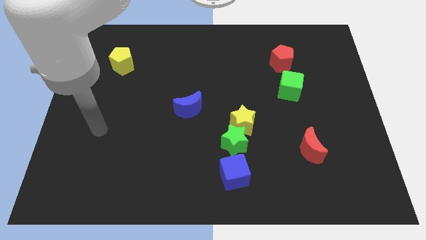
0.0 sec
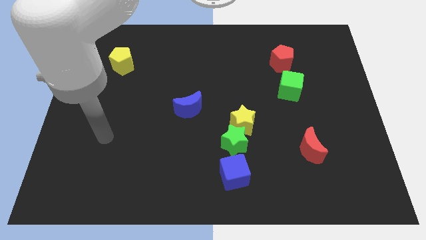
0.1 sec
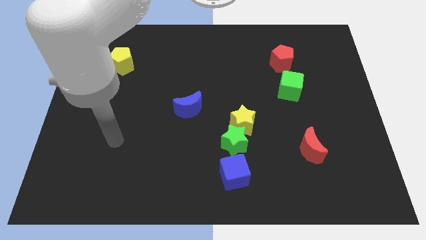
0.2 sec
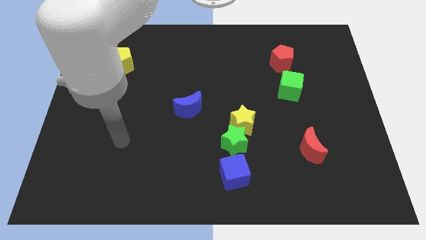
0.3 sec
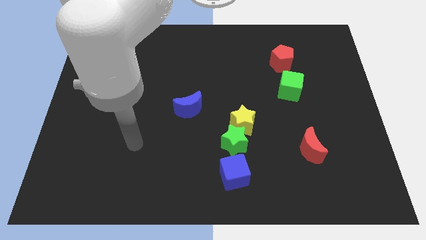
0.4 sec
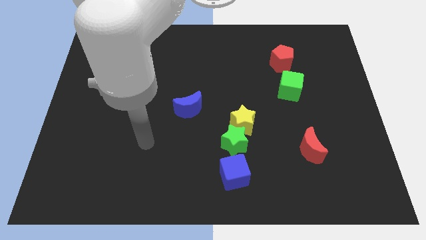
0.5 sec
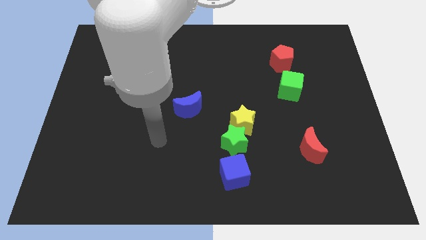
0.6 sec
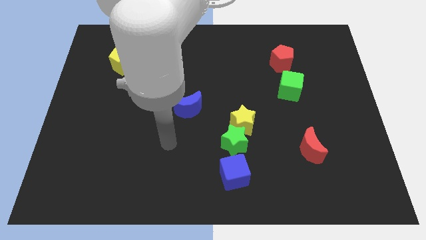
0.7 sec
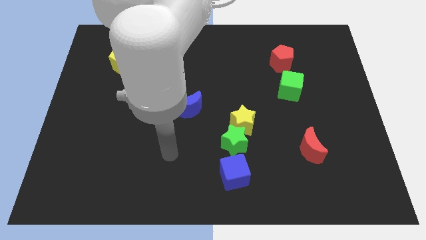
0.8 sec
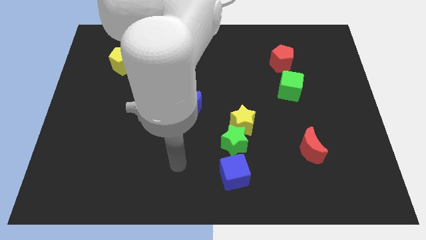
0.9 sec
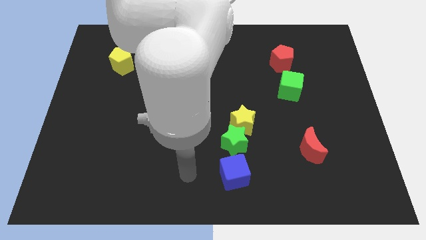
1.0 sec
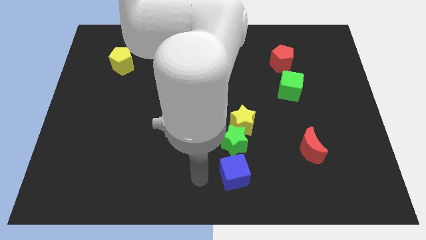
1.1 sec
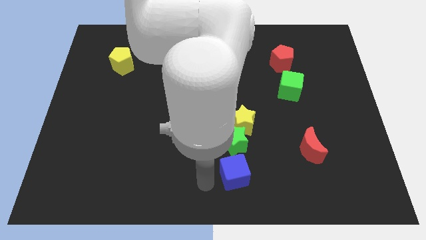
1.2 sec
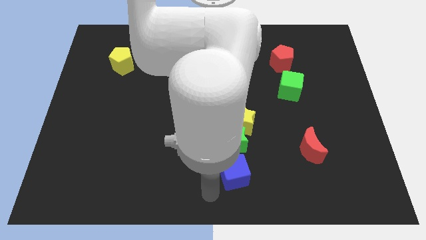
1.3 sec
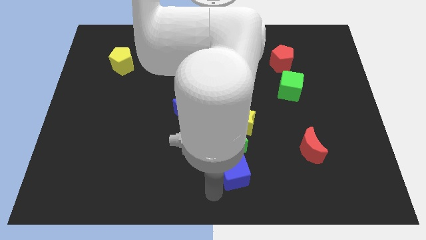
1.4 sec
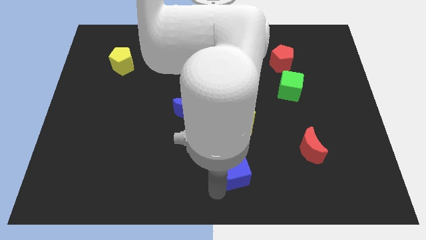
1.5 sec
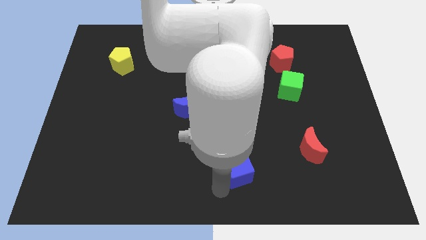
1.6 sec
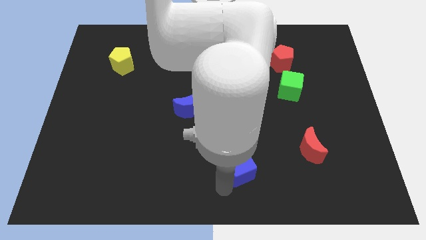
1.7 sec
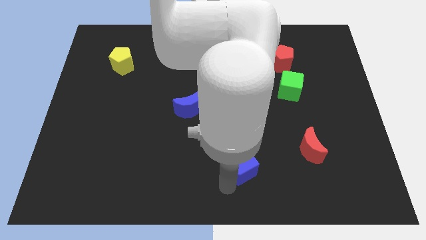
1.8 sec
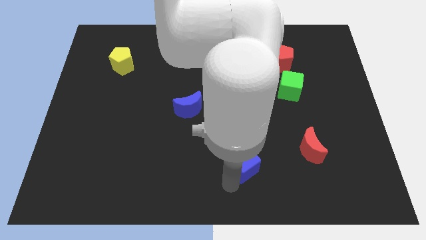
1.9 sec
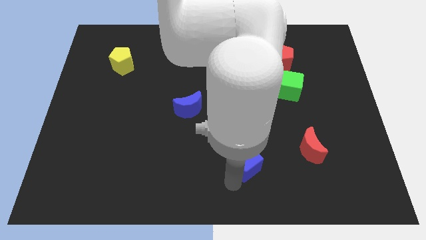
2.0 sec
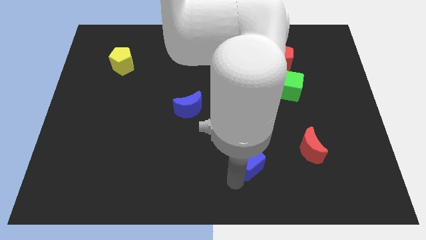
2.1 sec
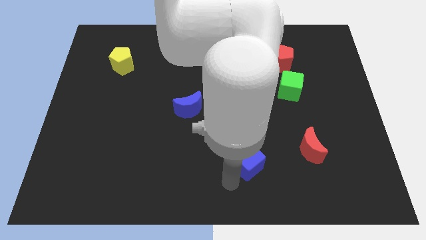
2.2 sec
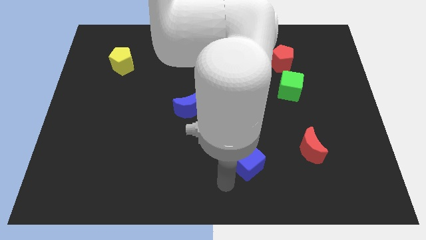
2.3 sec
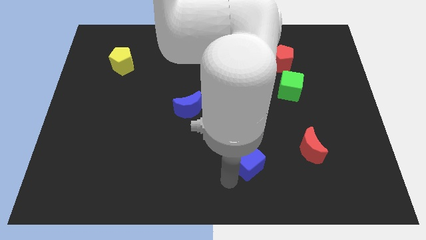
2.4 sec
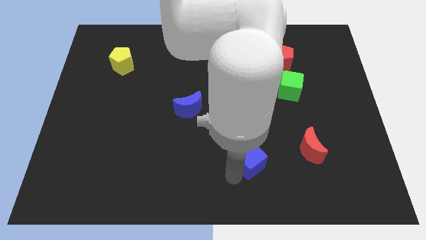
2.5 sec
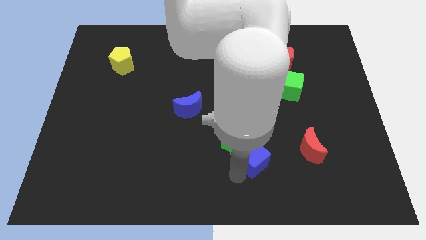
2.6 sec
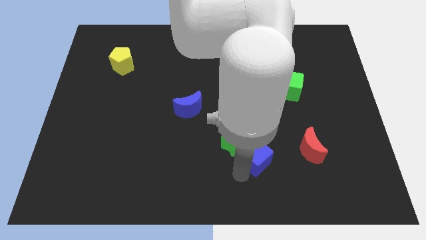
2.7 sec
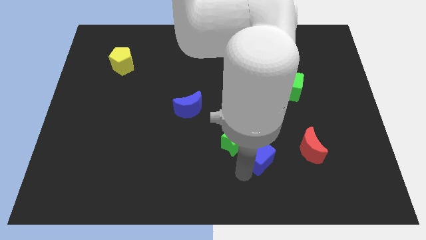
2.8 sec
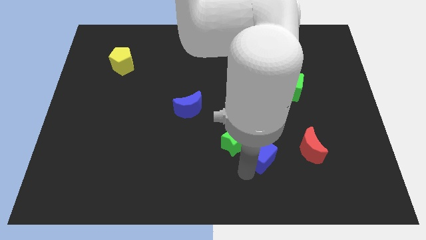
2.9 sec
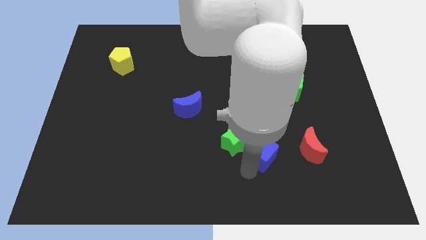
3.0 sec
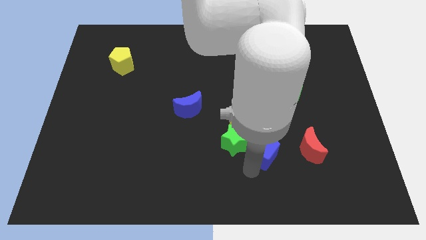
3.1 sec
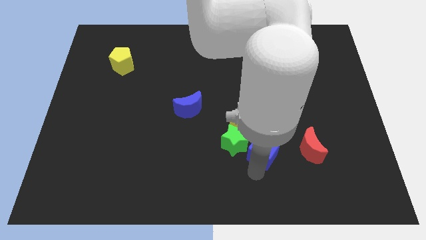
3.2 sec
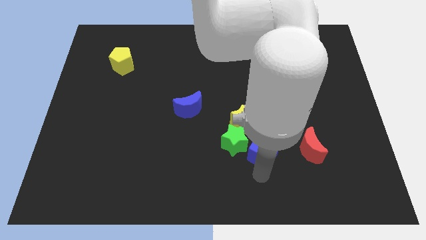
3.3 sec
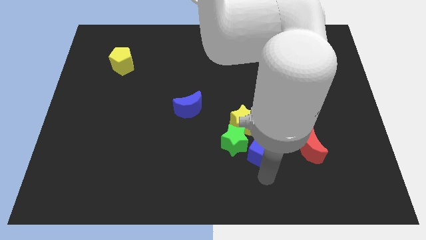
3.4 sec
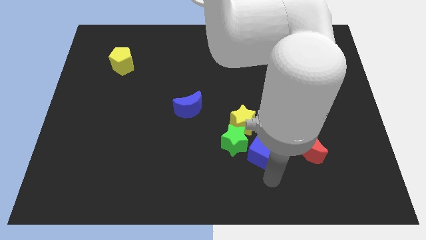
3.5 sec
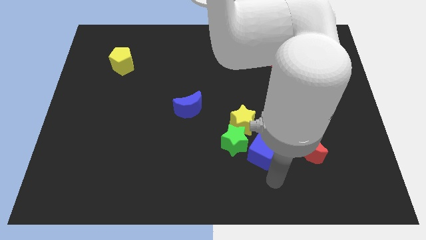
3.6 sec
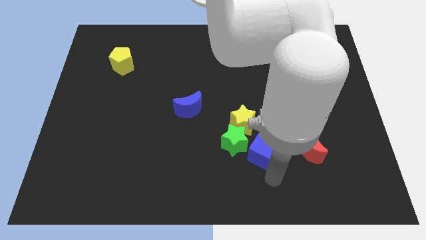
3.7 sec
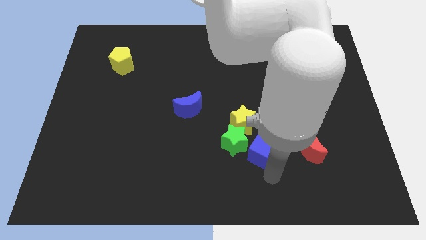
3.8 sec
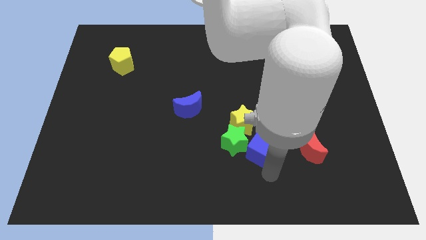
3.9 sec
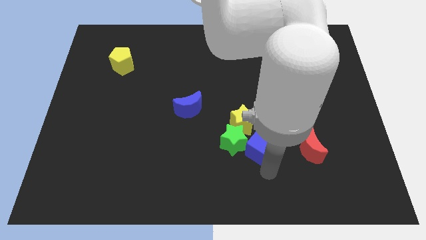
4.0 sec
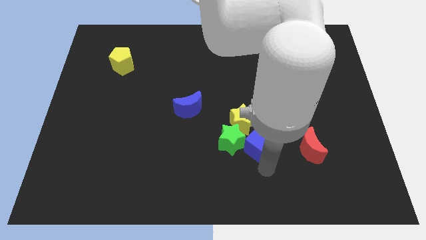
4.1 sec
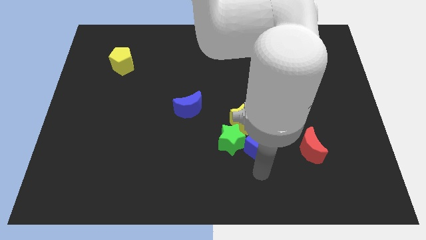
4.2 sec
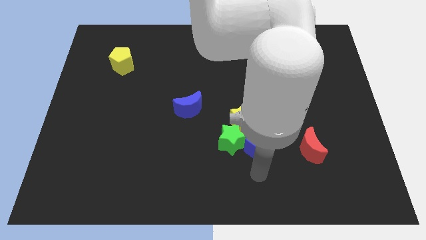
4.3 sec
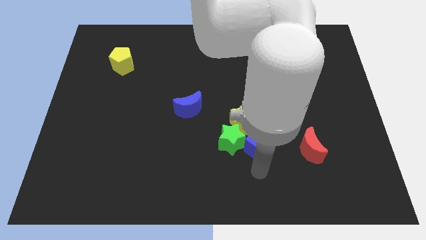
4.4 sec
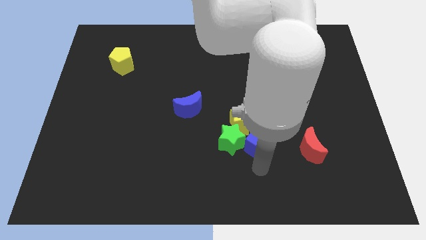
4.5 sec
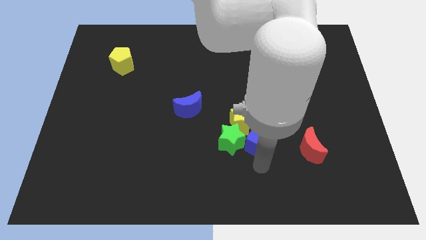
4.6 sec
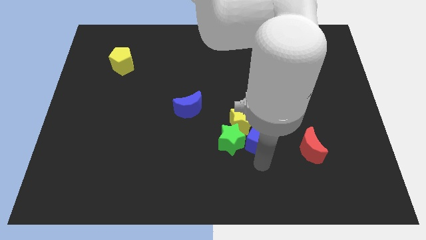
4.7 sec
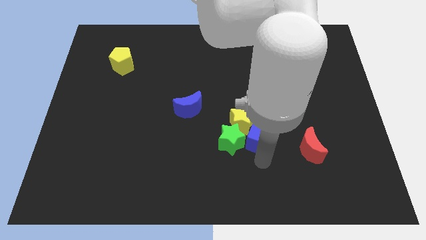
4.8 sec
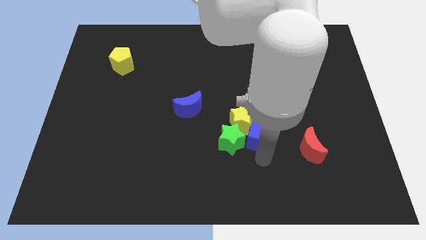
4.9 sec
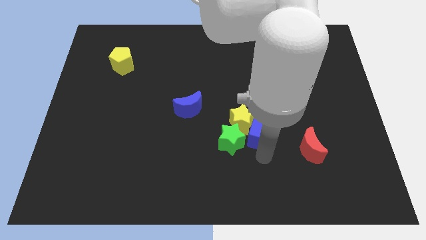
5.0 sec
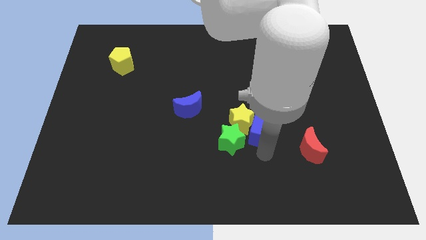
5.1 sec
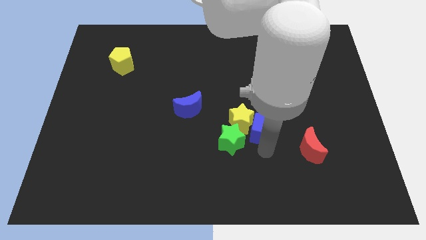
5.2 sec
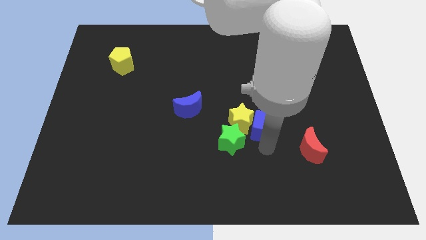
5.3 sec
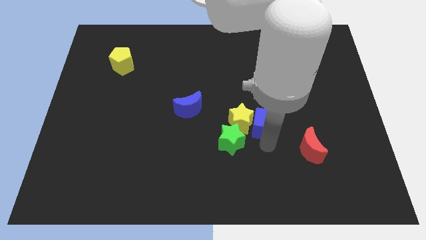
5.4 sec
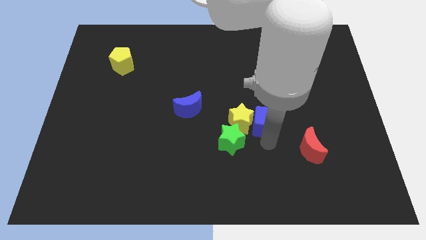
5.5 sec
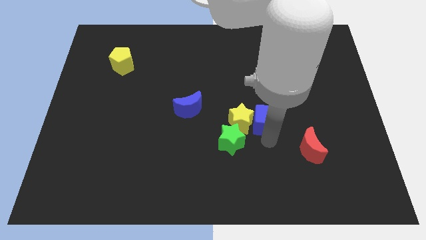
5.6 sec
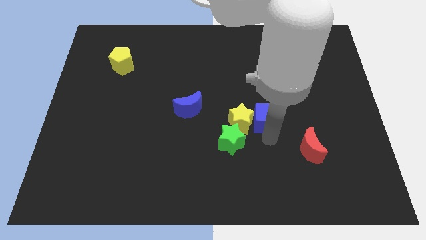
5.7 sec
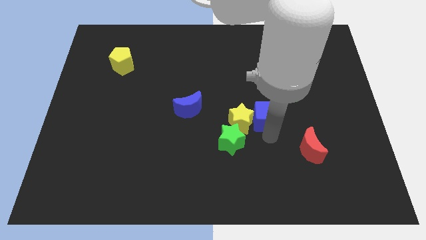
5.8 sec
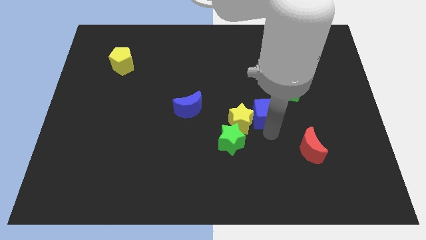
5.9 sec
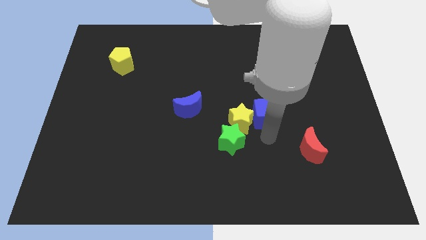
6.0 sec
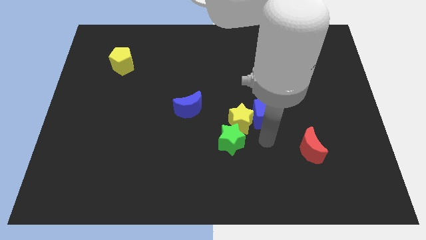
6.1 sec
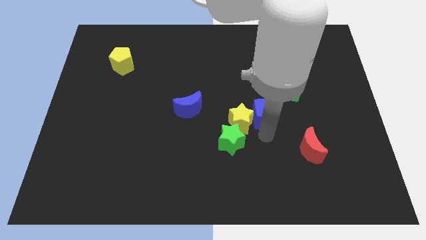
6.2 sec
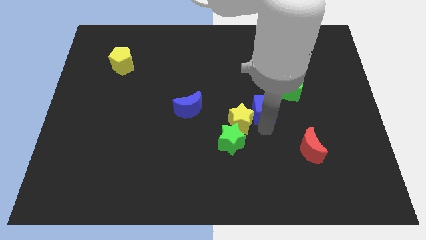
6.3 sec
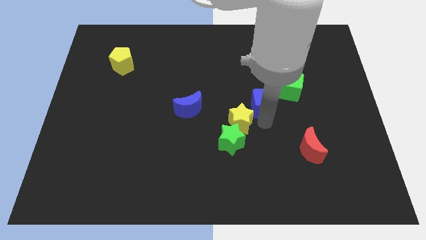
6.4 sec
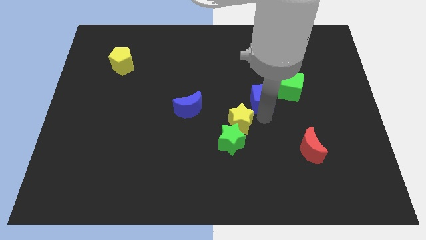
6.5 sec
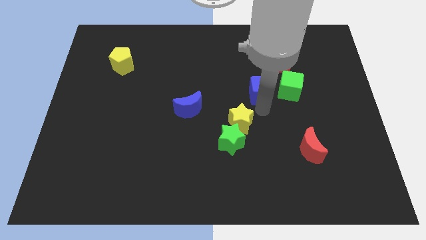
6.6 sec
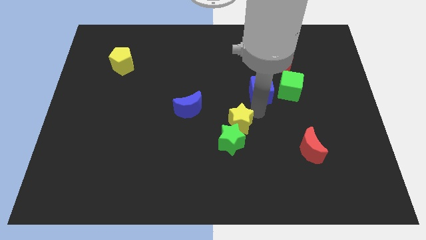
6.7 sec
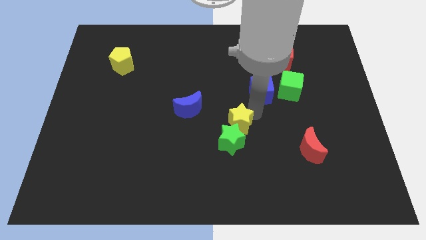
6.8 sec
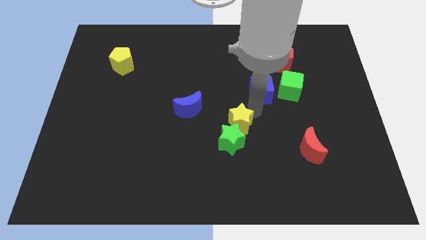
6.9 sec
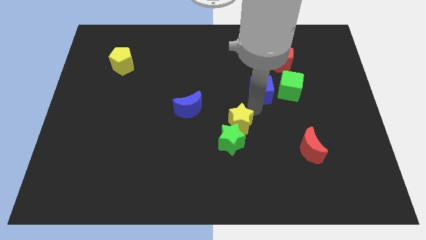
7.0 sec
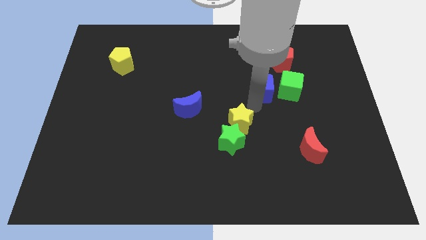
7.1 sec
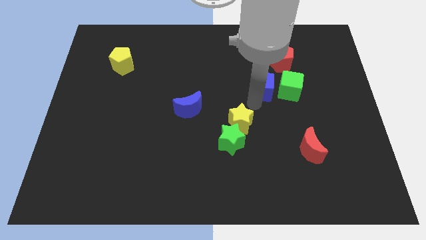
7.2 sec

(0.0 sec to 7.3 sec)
slide the blue cube to the top left of the green cube
